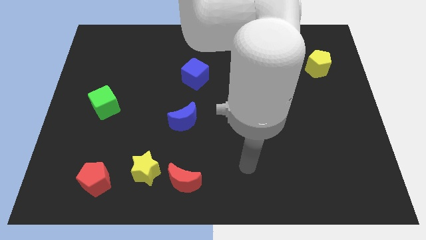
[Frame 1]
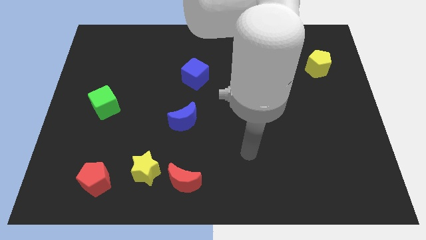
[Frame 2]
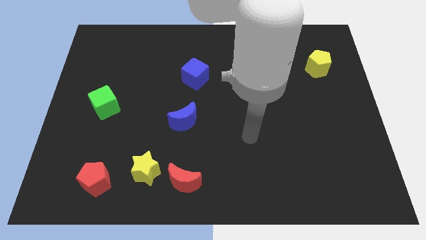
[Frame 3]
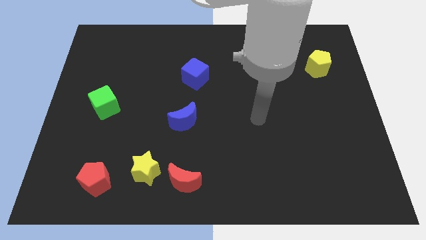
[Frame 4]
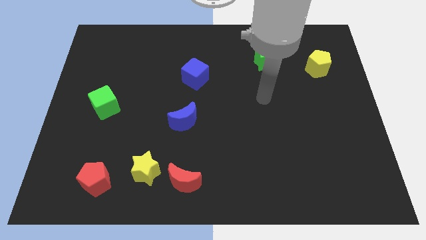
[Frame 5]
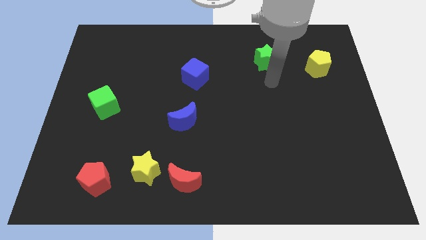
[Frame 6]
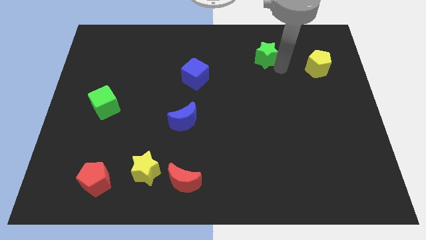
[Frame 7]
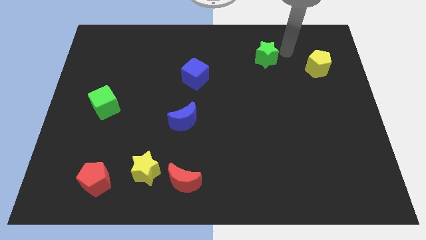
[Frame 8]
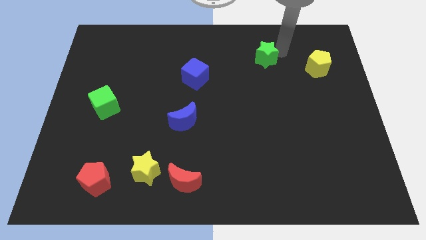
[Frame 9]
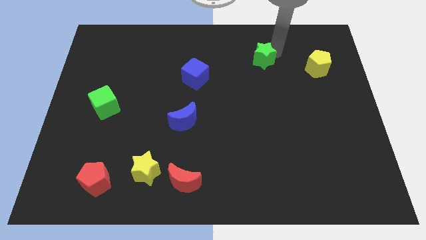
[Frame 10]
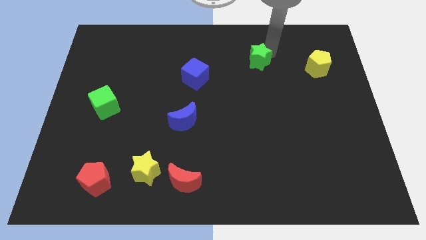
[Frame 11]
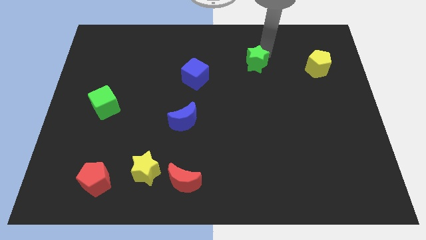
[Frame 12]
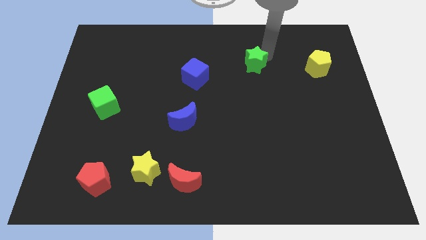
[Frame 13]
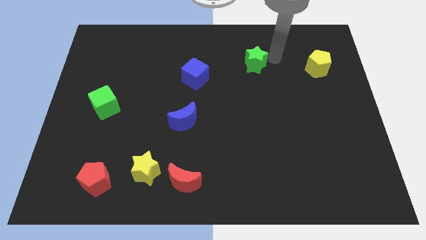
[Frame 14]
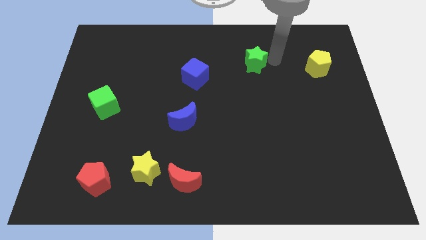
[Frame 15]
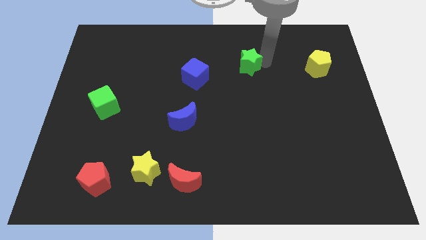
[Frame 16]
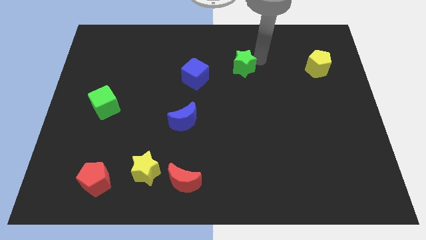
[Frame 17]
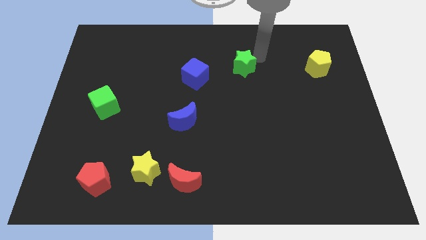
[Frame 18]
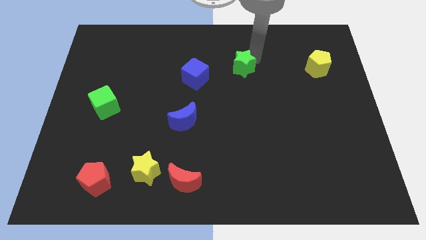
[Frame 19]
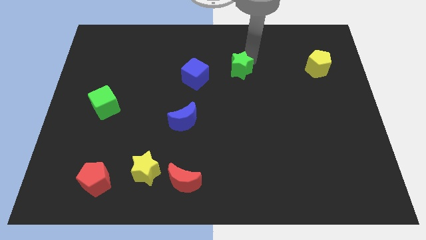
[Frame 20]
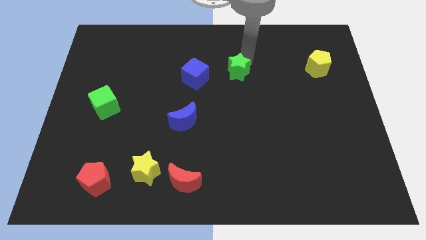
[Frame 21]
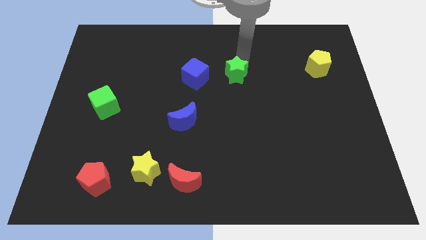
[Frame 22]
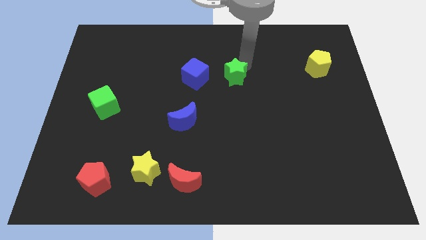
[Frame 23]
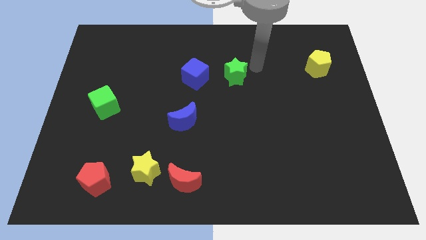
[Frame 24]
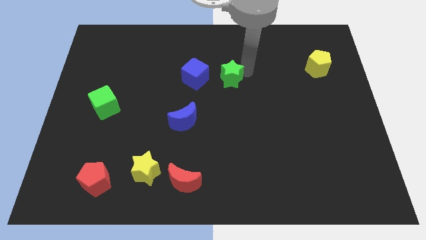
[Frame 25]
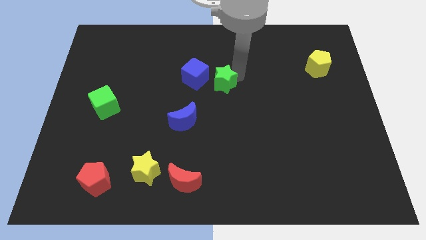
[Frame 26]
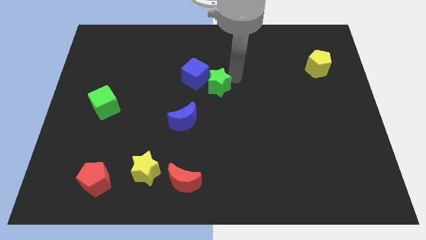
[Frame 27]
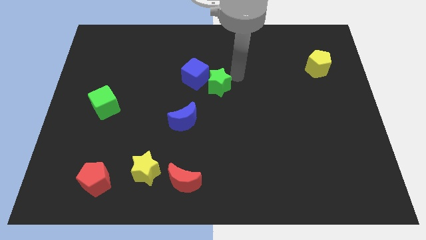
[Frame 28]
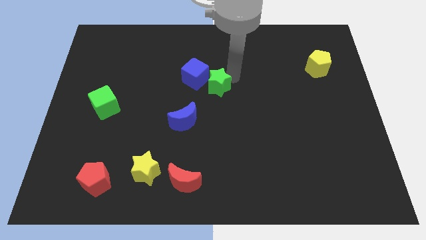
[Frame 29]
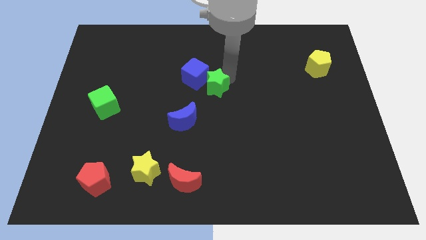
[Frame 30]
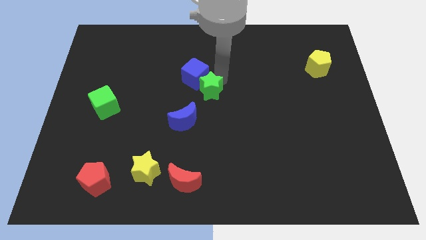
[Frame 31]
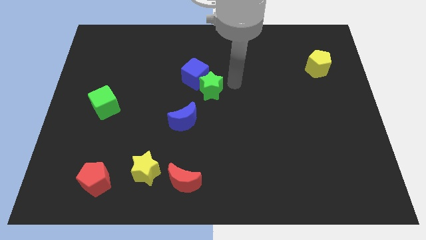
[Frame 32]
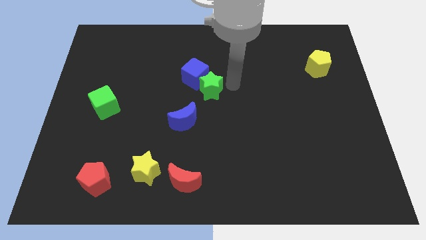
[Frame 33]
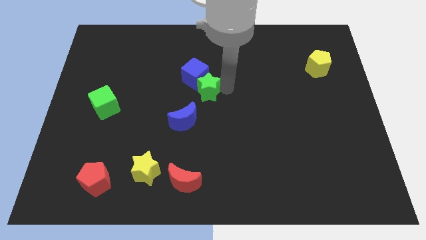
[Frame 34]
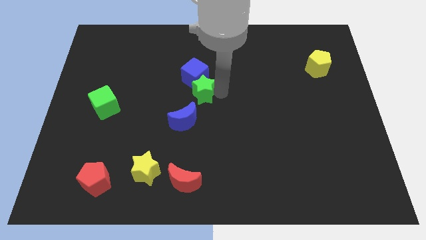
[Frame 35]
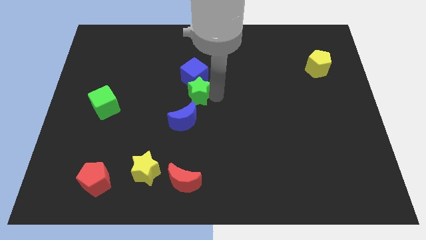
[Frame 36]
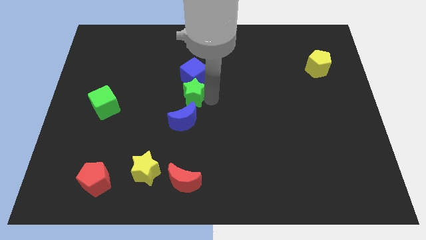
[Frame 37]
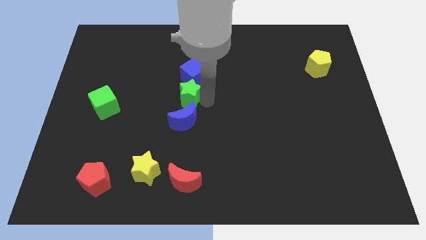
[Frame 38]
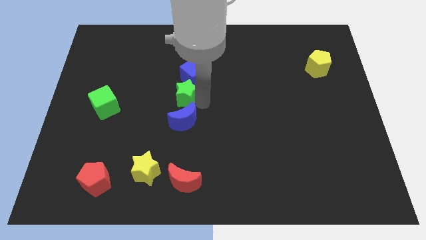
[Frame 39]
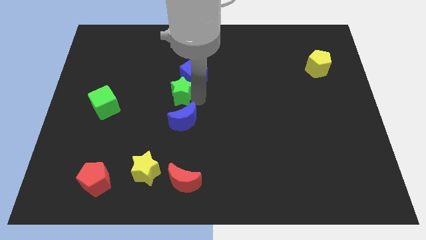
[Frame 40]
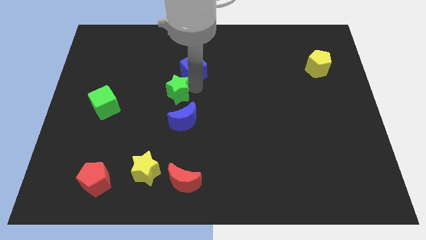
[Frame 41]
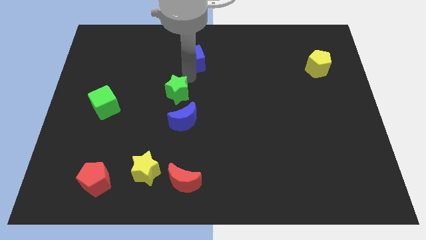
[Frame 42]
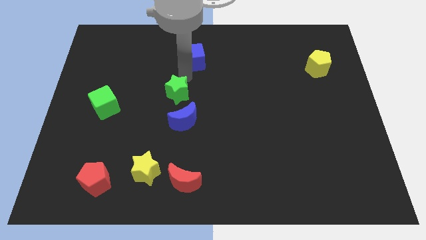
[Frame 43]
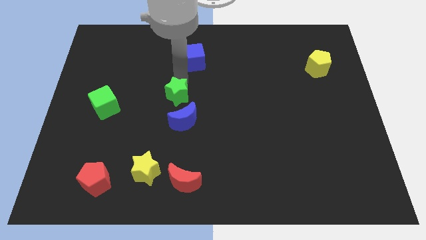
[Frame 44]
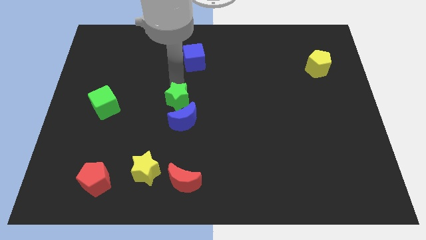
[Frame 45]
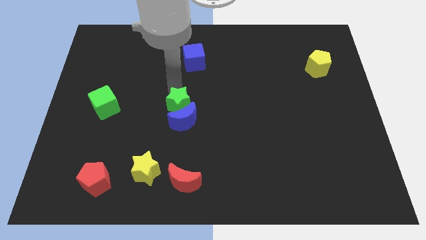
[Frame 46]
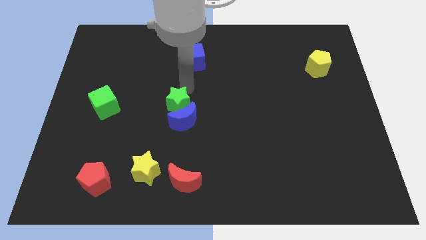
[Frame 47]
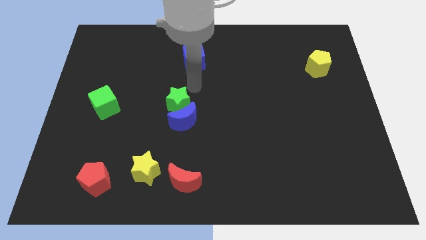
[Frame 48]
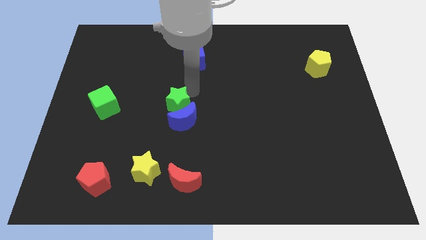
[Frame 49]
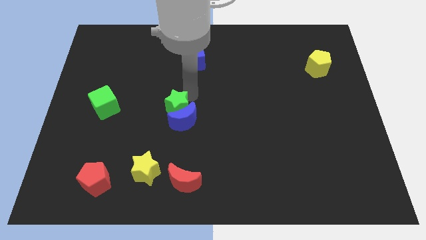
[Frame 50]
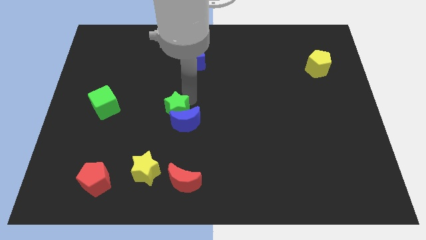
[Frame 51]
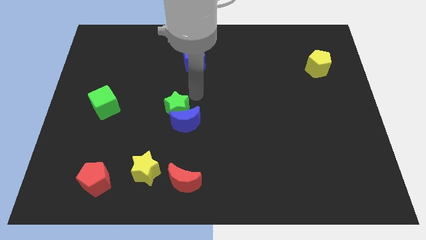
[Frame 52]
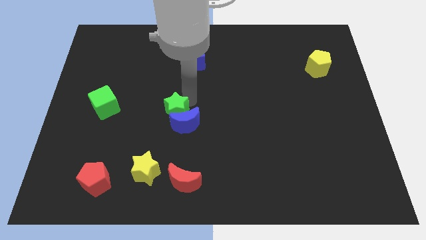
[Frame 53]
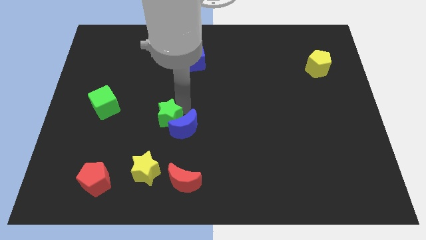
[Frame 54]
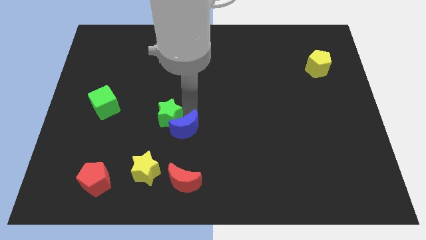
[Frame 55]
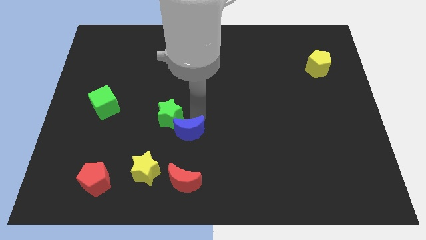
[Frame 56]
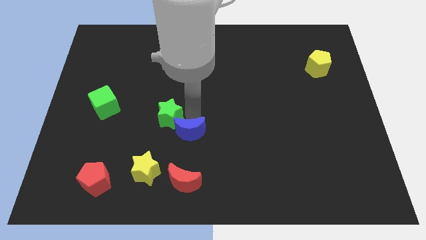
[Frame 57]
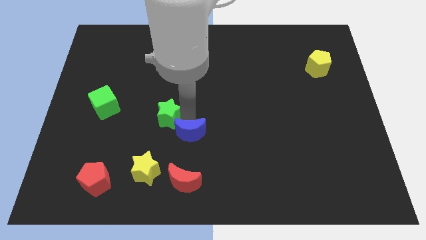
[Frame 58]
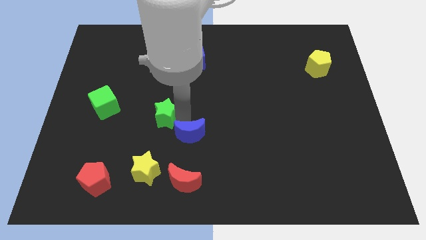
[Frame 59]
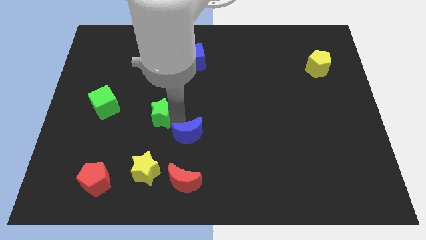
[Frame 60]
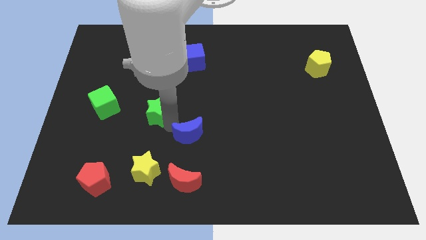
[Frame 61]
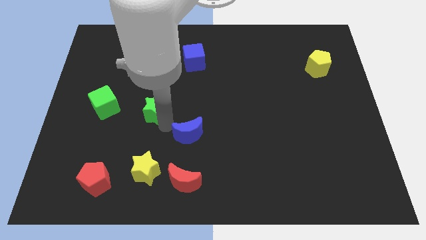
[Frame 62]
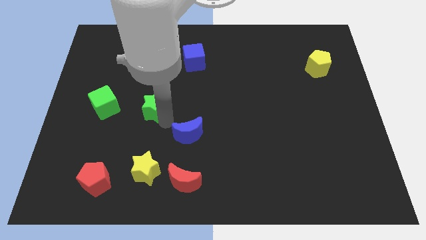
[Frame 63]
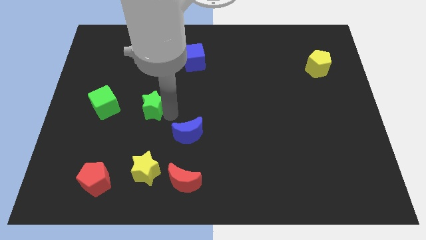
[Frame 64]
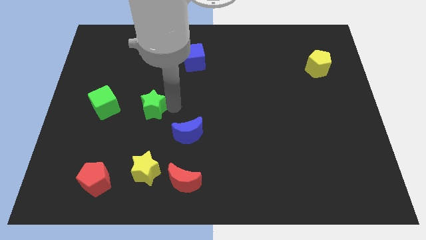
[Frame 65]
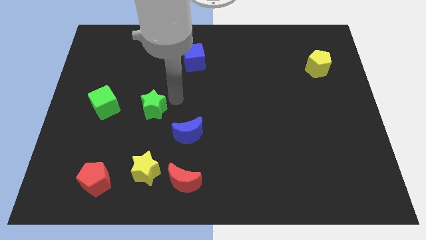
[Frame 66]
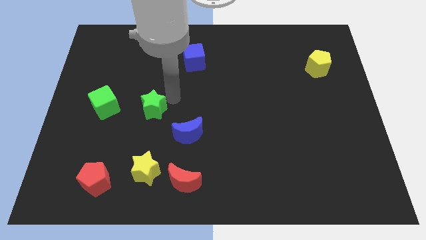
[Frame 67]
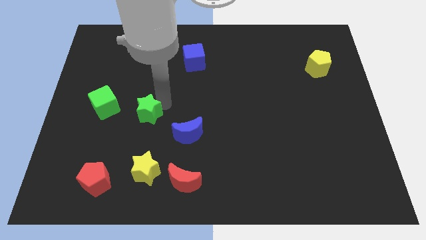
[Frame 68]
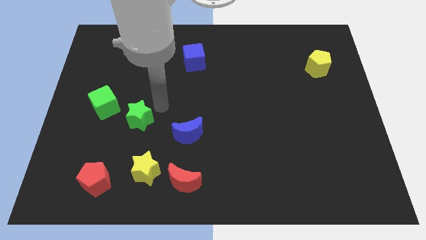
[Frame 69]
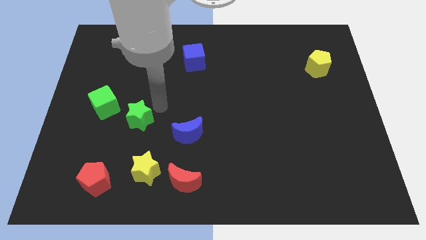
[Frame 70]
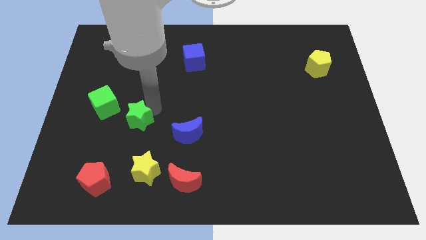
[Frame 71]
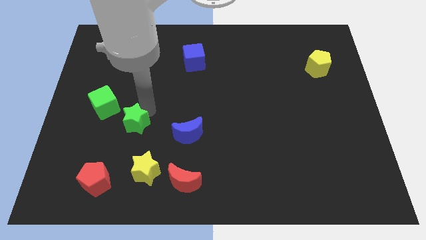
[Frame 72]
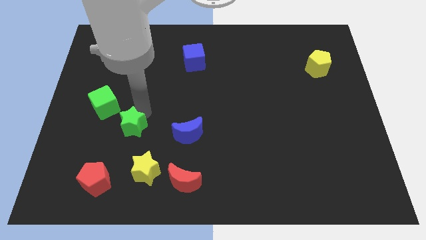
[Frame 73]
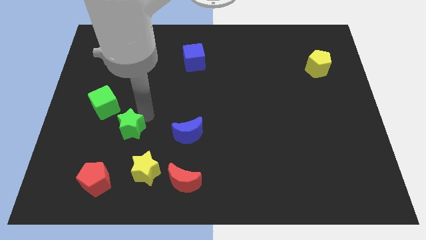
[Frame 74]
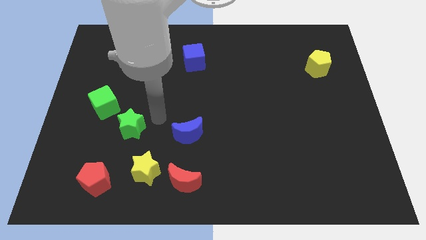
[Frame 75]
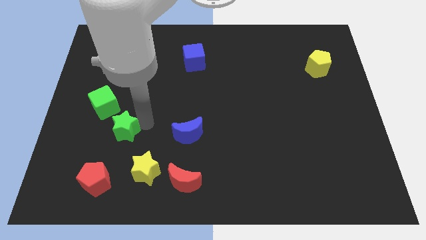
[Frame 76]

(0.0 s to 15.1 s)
move the green star to the top of the red pentagon
